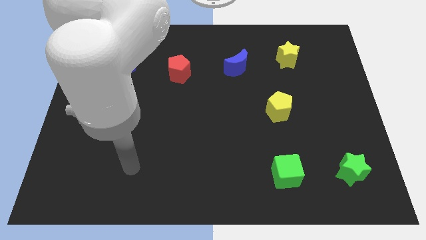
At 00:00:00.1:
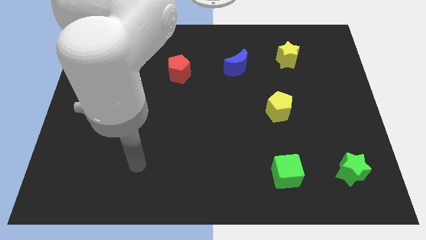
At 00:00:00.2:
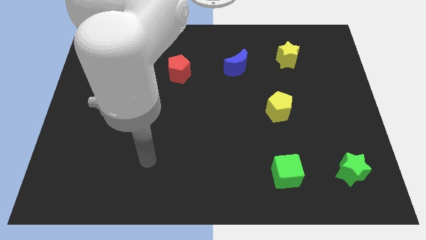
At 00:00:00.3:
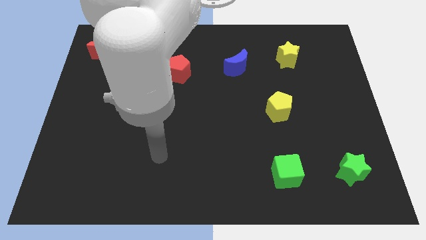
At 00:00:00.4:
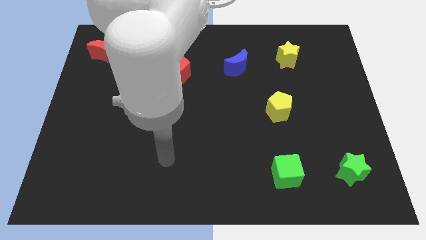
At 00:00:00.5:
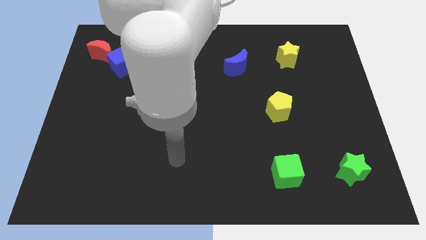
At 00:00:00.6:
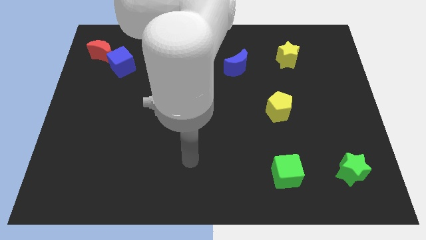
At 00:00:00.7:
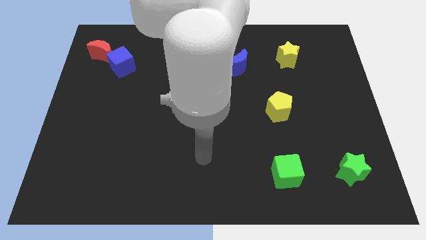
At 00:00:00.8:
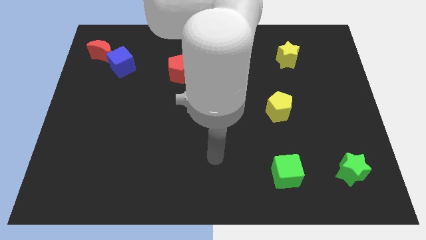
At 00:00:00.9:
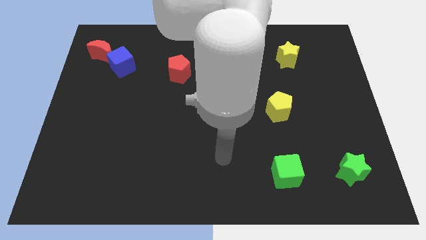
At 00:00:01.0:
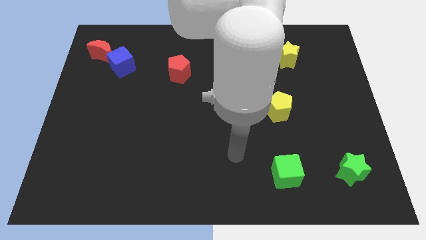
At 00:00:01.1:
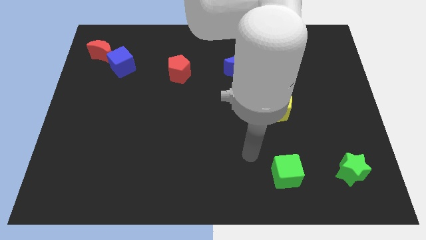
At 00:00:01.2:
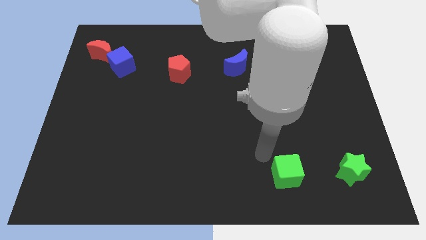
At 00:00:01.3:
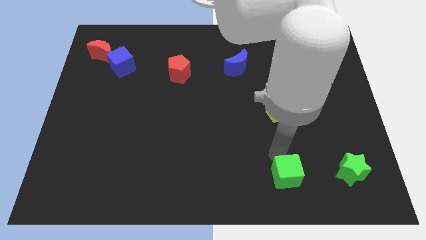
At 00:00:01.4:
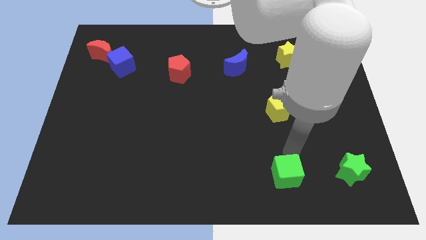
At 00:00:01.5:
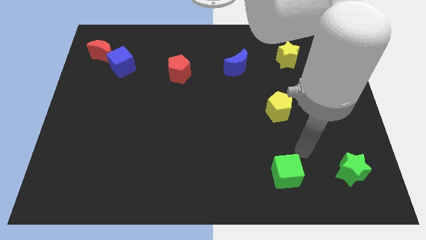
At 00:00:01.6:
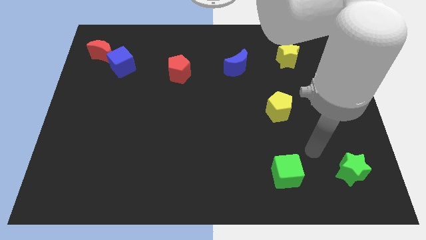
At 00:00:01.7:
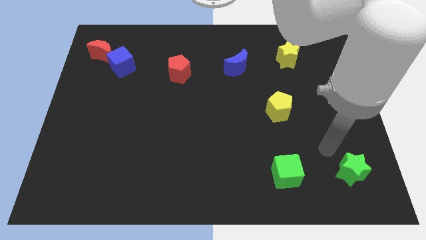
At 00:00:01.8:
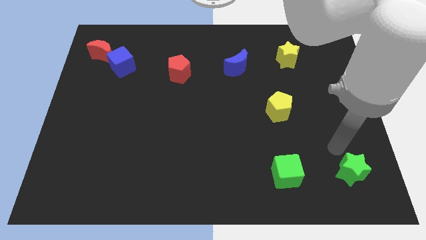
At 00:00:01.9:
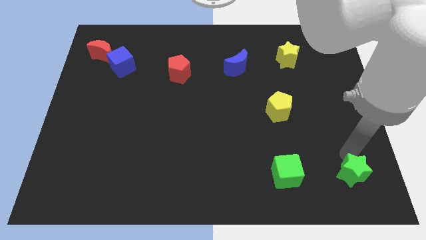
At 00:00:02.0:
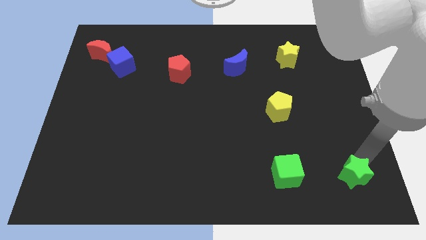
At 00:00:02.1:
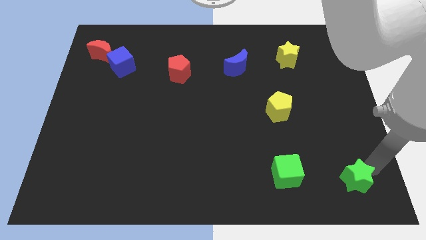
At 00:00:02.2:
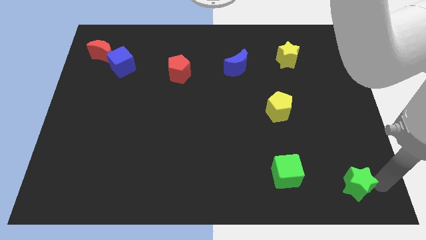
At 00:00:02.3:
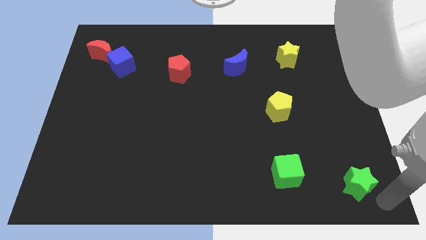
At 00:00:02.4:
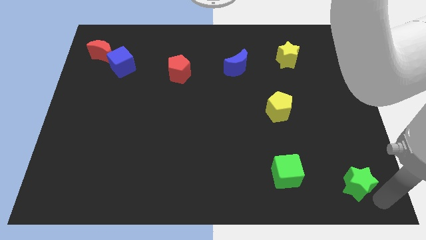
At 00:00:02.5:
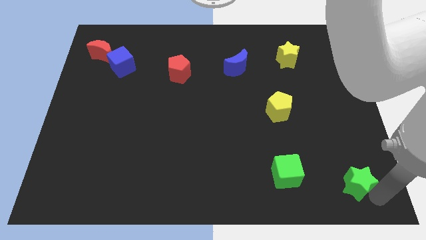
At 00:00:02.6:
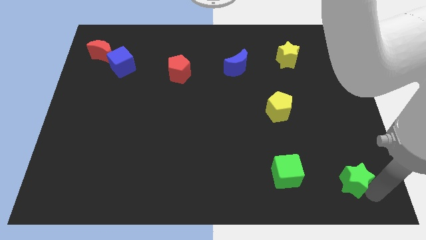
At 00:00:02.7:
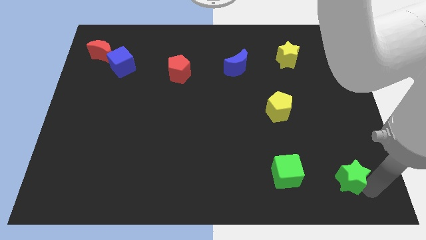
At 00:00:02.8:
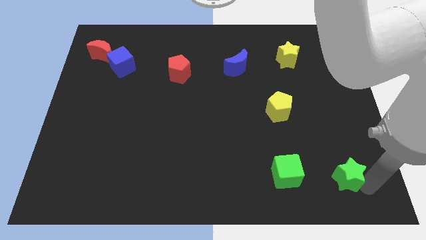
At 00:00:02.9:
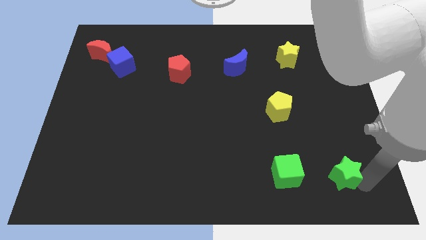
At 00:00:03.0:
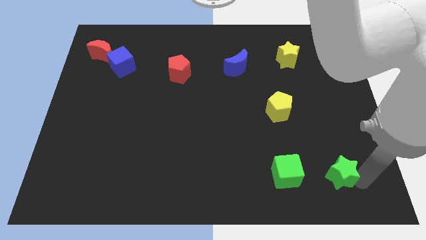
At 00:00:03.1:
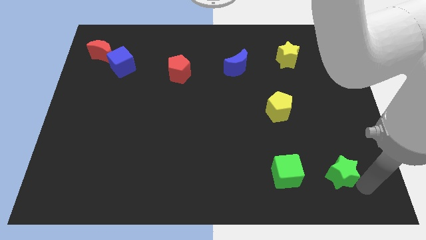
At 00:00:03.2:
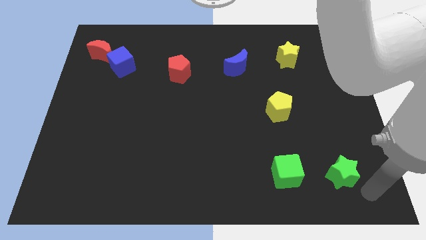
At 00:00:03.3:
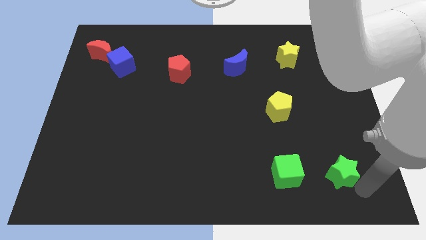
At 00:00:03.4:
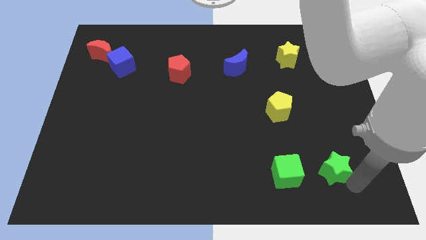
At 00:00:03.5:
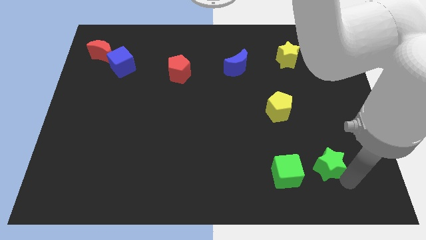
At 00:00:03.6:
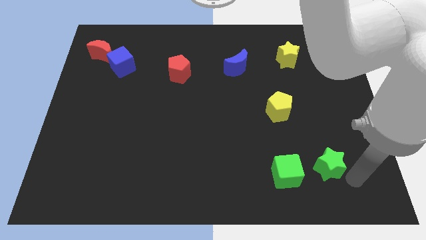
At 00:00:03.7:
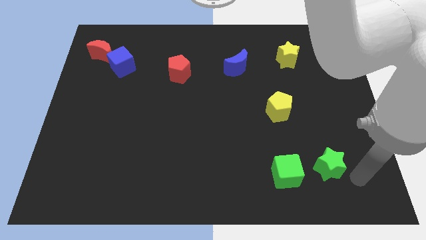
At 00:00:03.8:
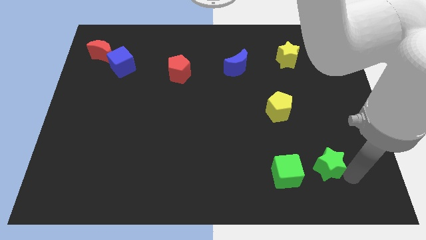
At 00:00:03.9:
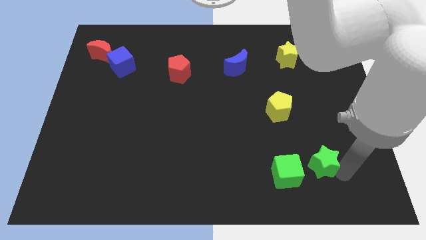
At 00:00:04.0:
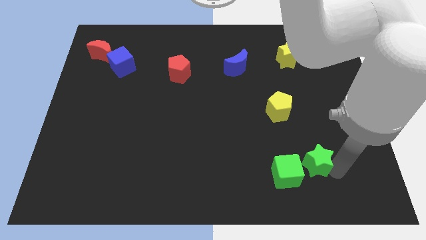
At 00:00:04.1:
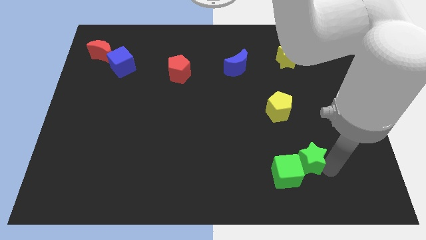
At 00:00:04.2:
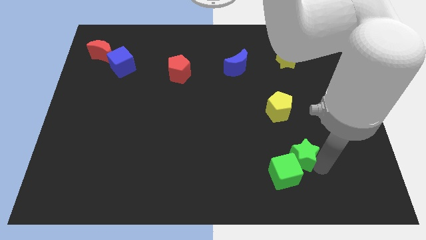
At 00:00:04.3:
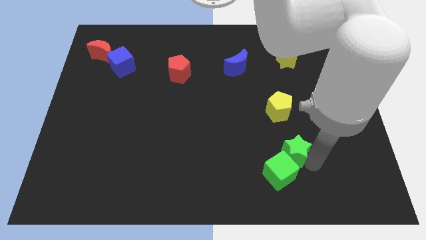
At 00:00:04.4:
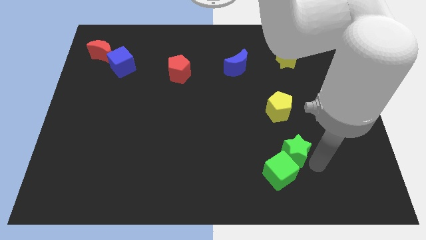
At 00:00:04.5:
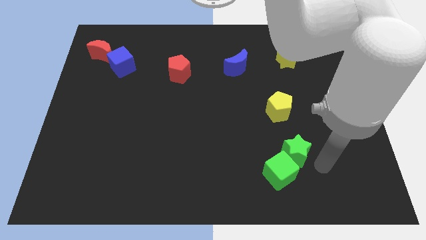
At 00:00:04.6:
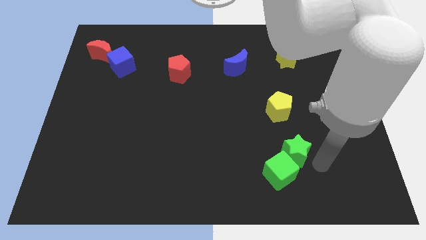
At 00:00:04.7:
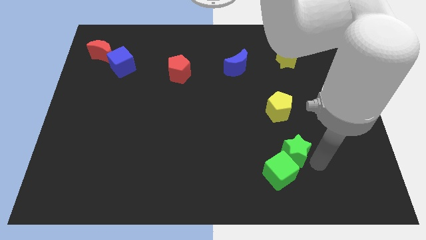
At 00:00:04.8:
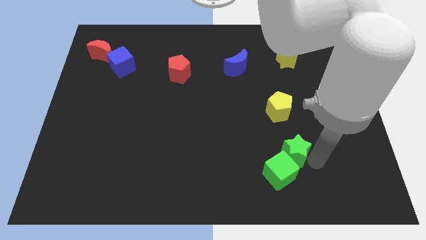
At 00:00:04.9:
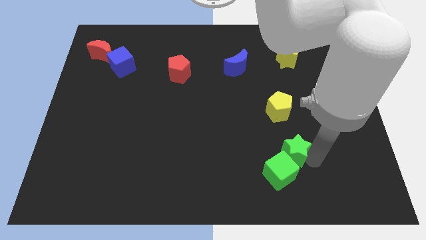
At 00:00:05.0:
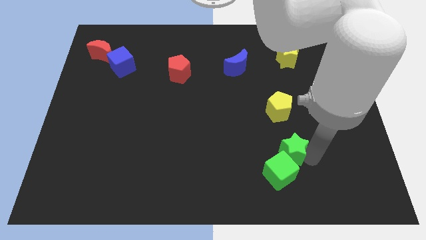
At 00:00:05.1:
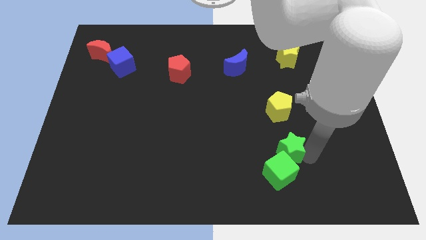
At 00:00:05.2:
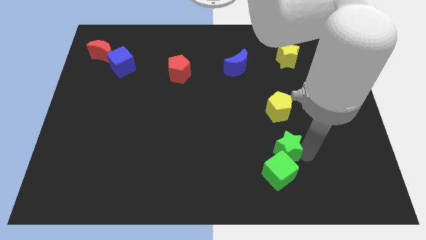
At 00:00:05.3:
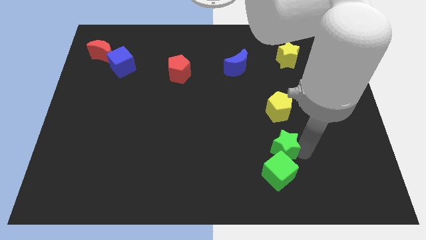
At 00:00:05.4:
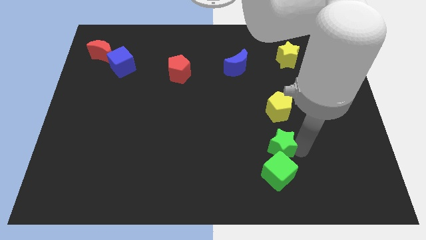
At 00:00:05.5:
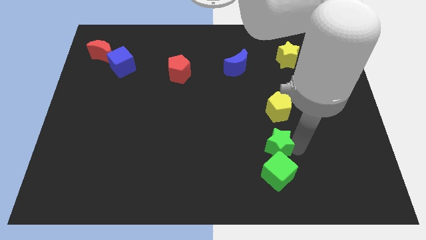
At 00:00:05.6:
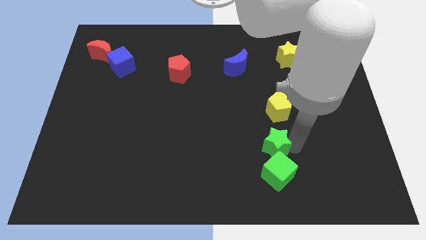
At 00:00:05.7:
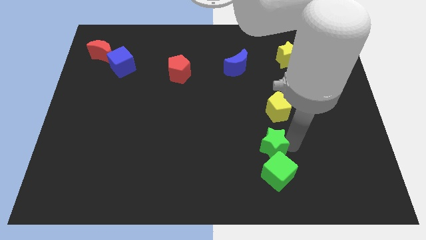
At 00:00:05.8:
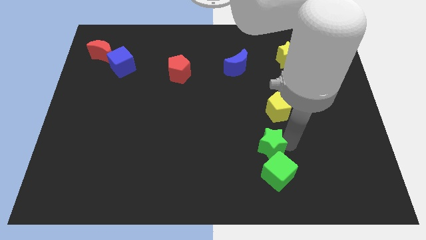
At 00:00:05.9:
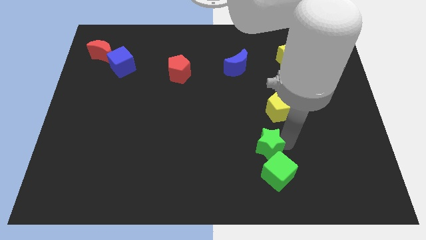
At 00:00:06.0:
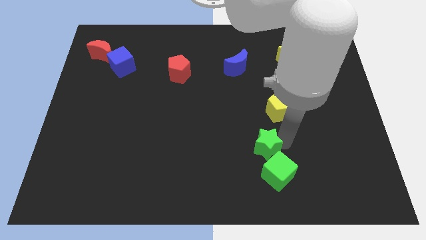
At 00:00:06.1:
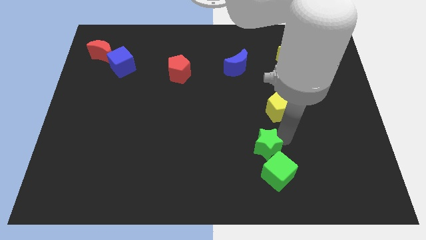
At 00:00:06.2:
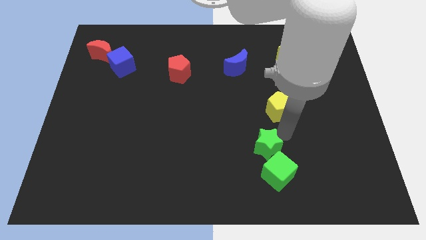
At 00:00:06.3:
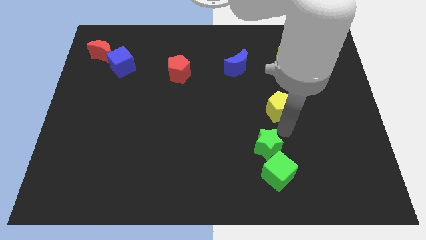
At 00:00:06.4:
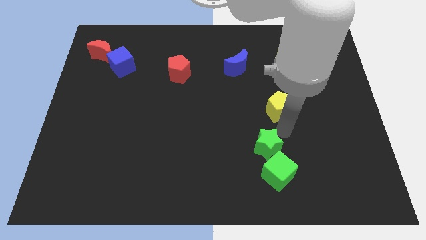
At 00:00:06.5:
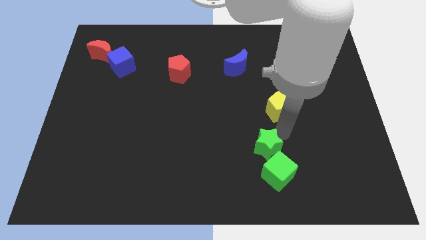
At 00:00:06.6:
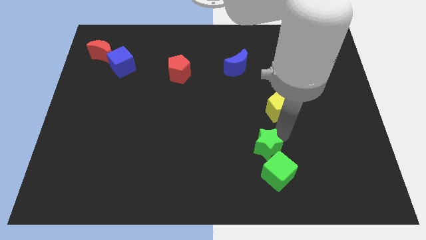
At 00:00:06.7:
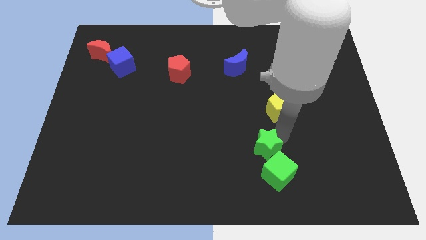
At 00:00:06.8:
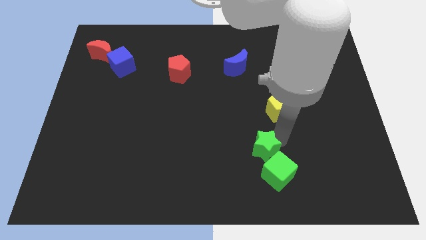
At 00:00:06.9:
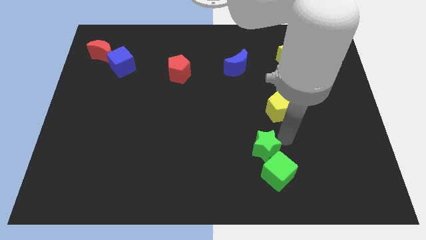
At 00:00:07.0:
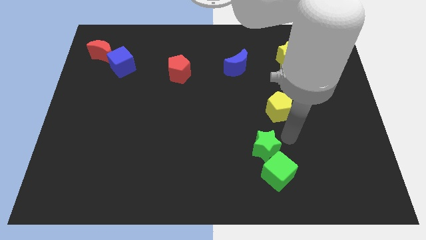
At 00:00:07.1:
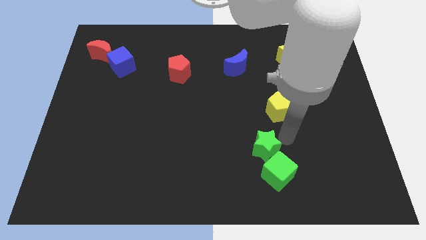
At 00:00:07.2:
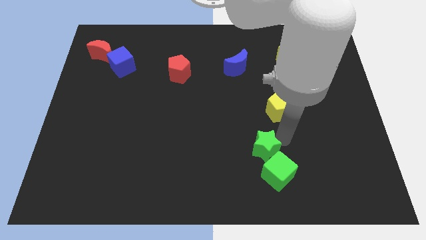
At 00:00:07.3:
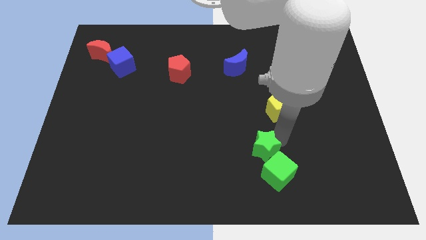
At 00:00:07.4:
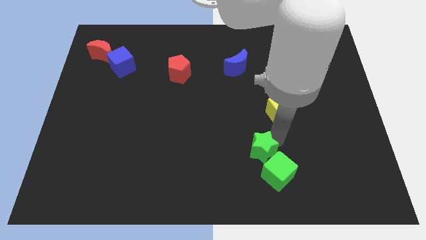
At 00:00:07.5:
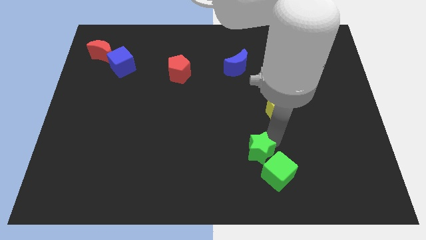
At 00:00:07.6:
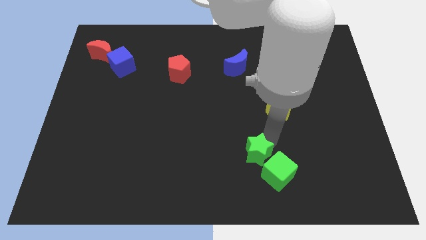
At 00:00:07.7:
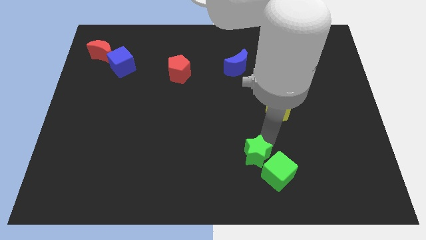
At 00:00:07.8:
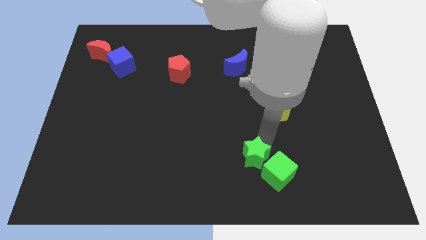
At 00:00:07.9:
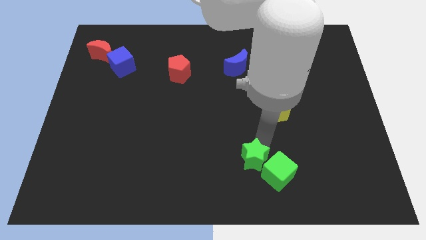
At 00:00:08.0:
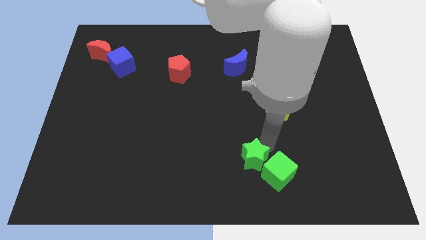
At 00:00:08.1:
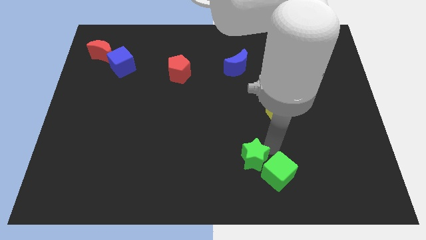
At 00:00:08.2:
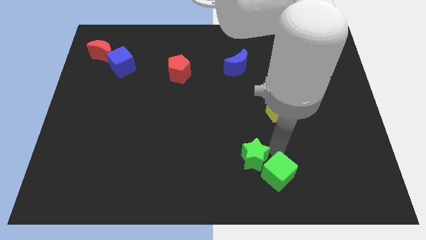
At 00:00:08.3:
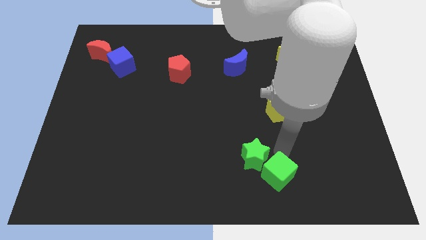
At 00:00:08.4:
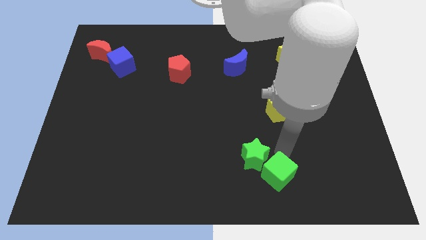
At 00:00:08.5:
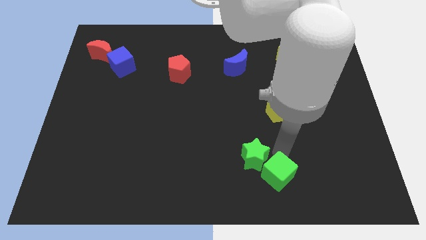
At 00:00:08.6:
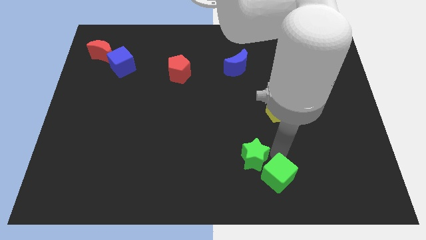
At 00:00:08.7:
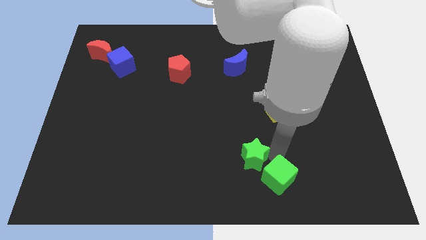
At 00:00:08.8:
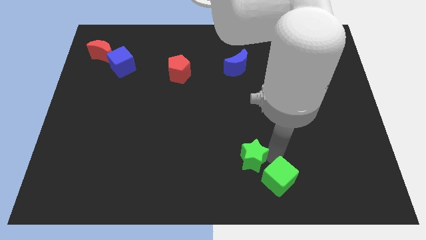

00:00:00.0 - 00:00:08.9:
move the green star left
